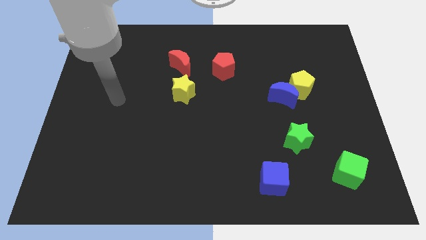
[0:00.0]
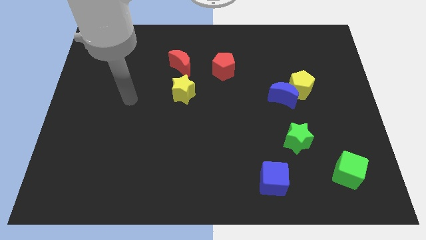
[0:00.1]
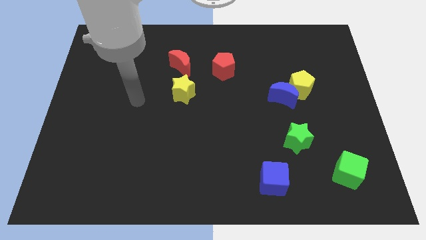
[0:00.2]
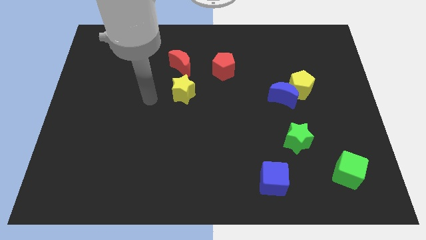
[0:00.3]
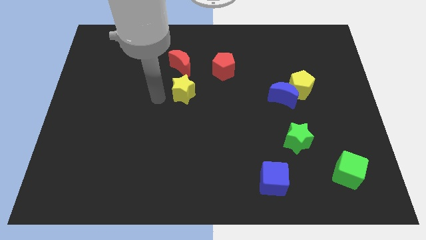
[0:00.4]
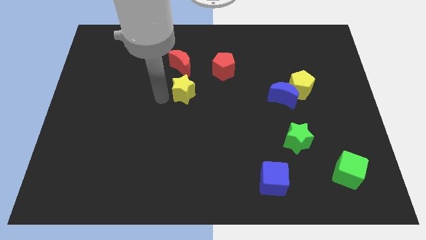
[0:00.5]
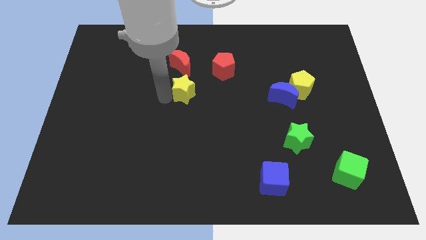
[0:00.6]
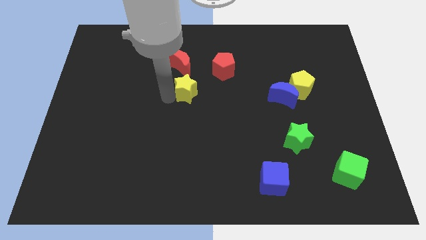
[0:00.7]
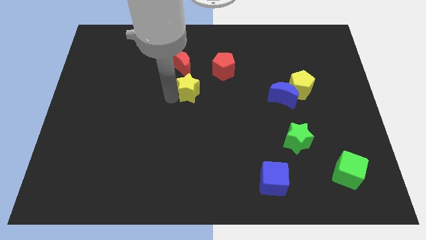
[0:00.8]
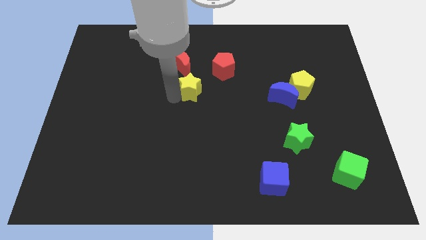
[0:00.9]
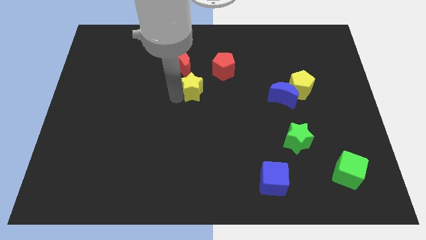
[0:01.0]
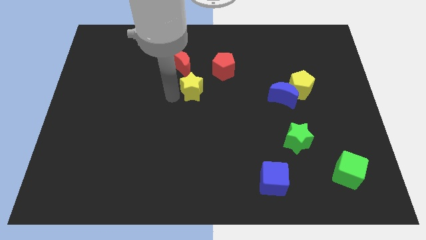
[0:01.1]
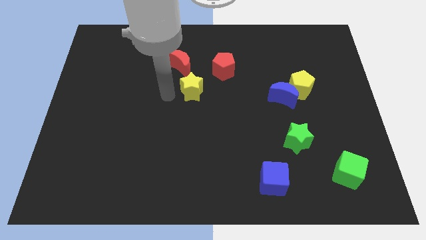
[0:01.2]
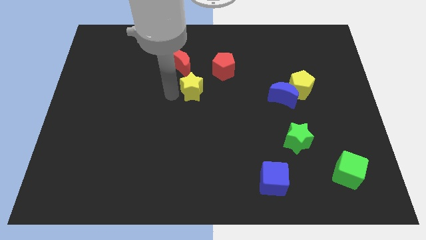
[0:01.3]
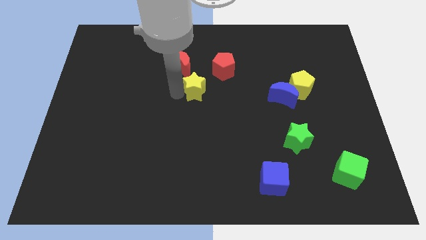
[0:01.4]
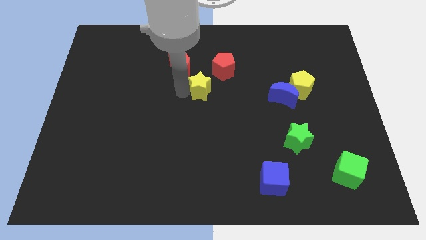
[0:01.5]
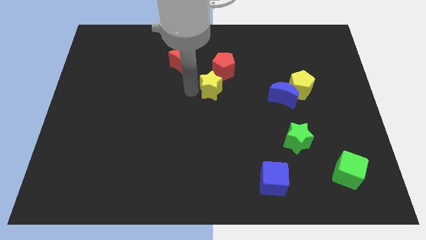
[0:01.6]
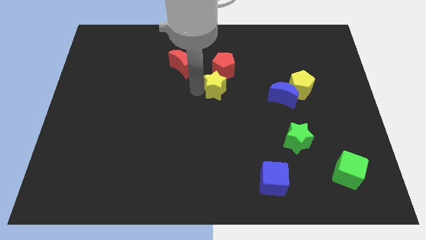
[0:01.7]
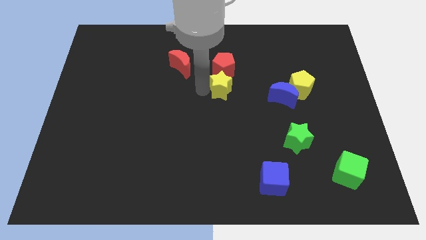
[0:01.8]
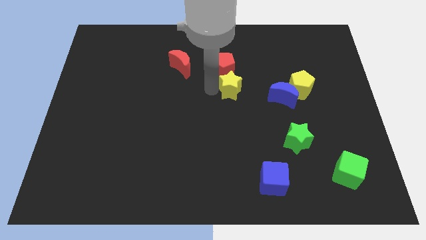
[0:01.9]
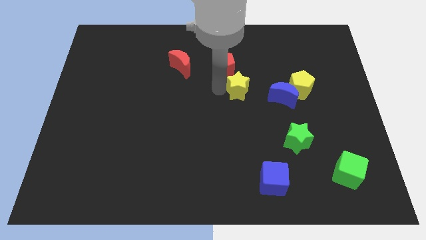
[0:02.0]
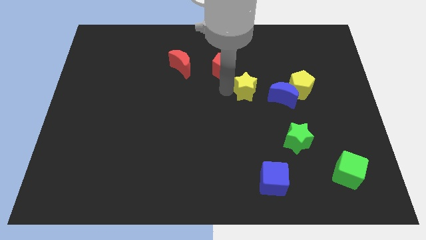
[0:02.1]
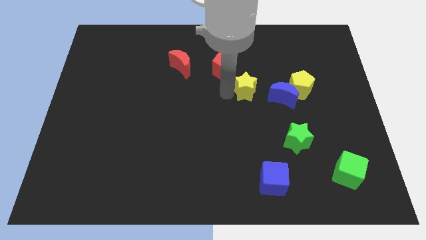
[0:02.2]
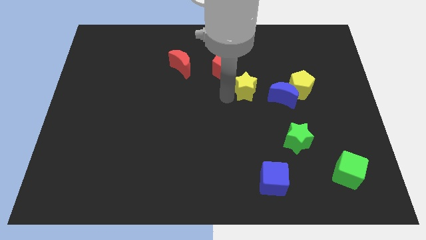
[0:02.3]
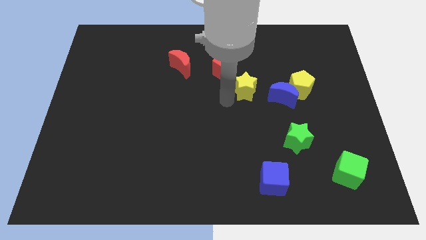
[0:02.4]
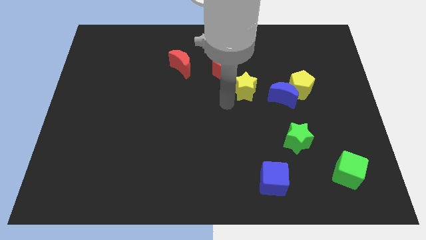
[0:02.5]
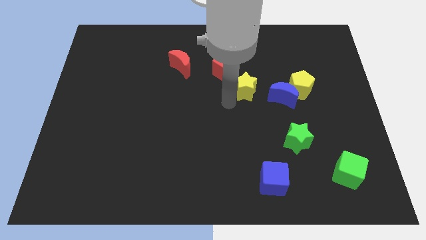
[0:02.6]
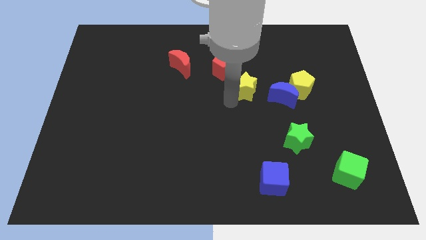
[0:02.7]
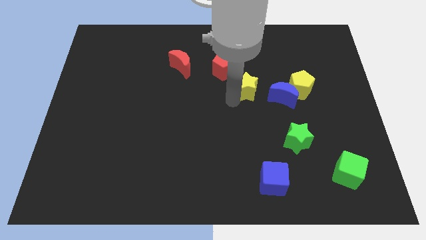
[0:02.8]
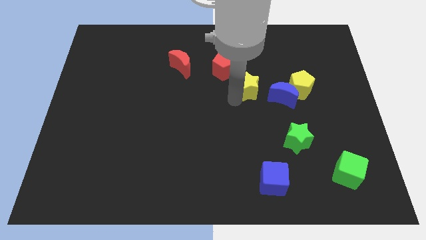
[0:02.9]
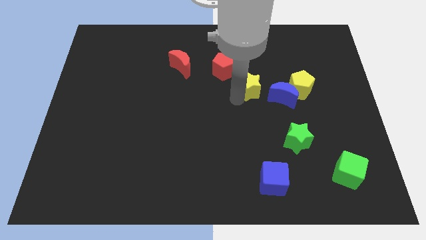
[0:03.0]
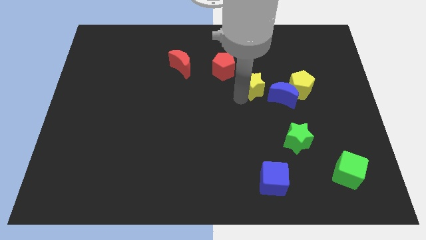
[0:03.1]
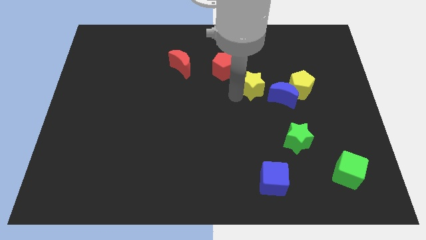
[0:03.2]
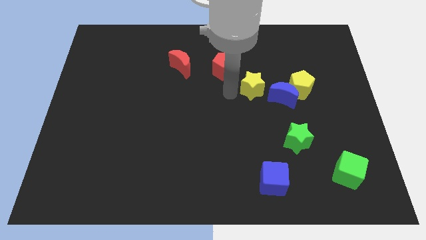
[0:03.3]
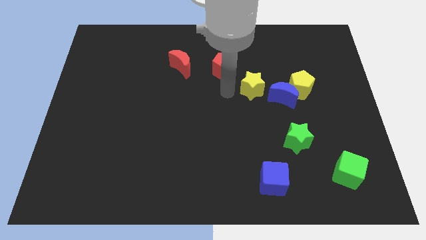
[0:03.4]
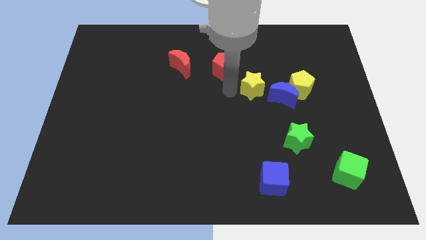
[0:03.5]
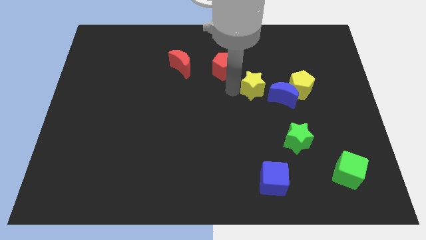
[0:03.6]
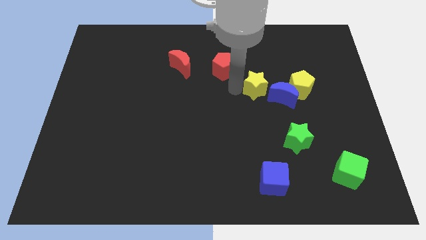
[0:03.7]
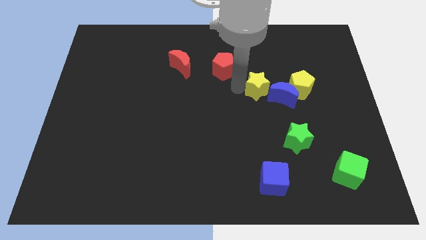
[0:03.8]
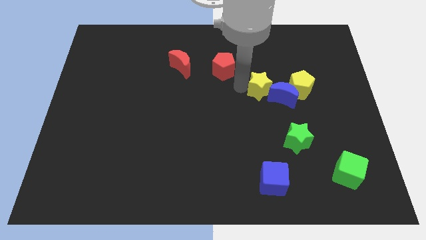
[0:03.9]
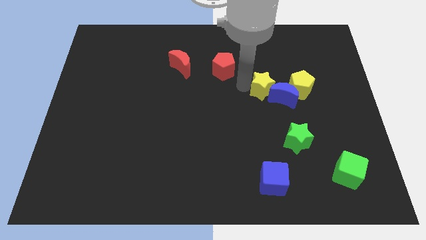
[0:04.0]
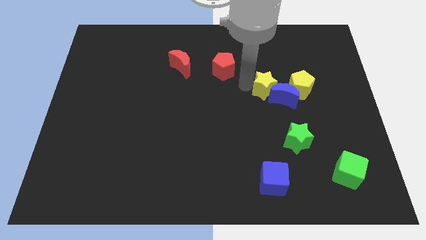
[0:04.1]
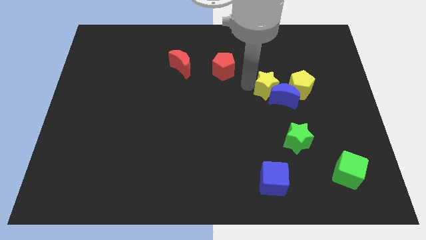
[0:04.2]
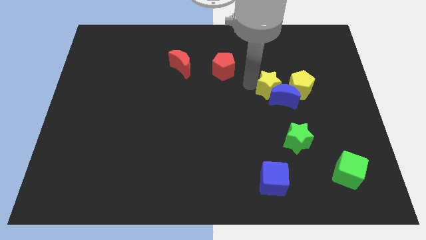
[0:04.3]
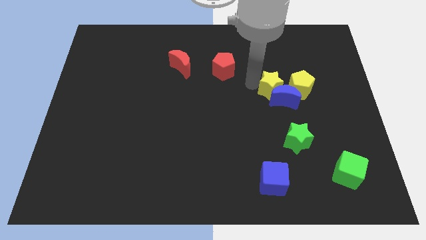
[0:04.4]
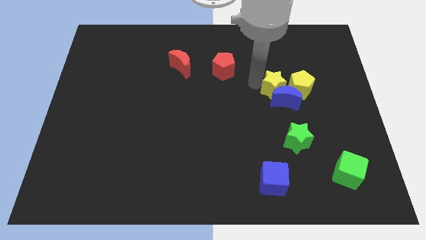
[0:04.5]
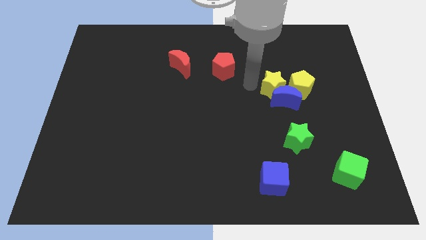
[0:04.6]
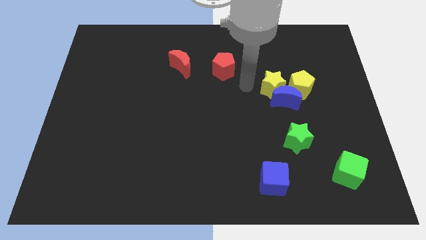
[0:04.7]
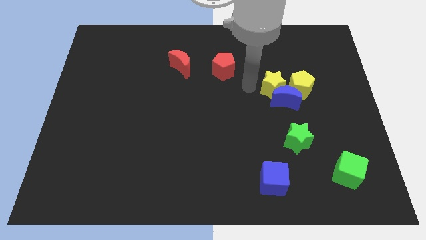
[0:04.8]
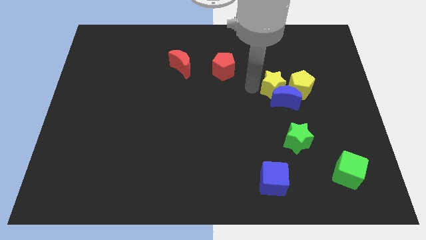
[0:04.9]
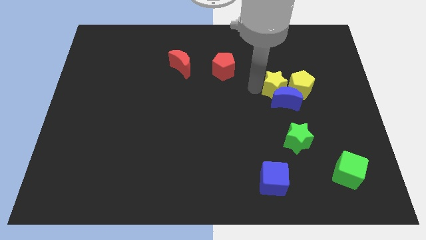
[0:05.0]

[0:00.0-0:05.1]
put the yellow star towards the yellow pentagon

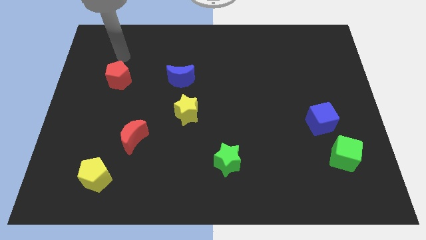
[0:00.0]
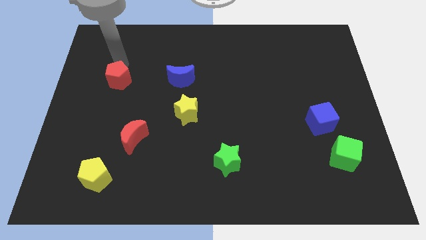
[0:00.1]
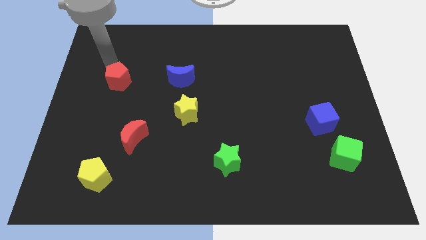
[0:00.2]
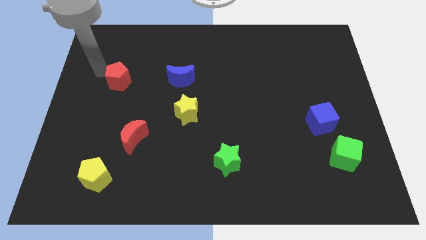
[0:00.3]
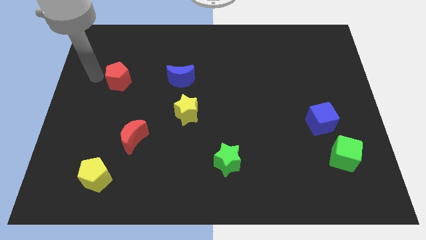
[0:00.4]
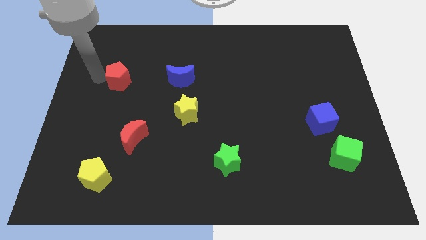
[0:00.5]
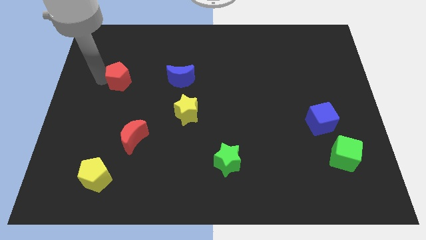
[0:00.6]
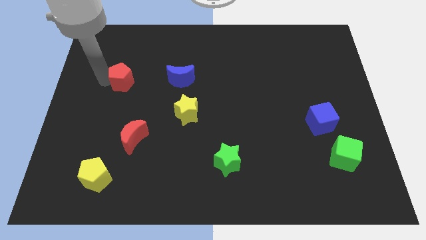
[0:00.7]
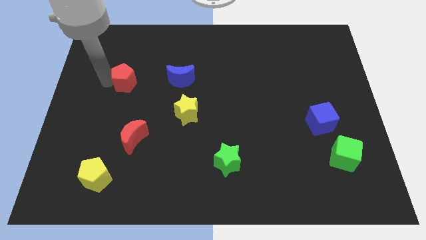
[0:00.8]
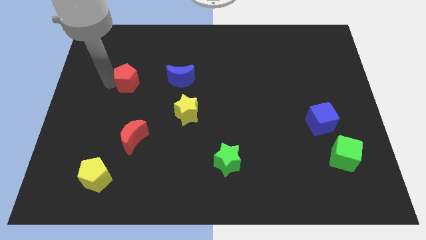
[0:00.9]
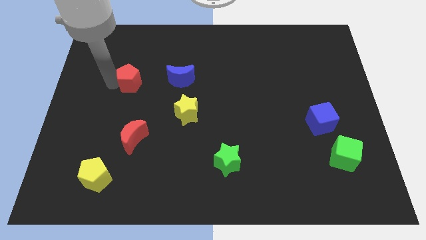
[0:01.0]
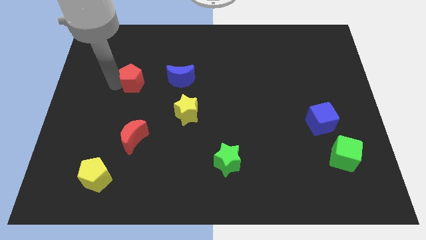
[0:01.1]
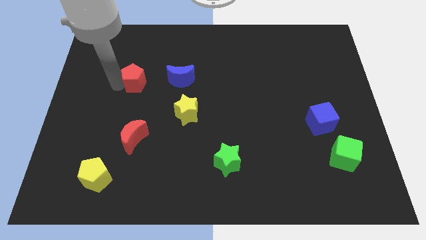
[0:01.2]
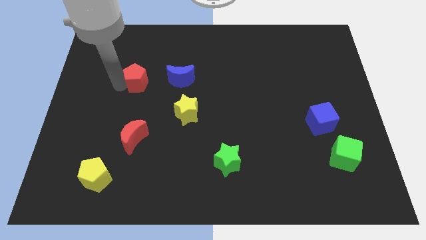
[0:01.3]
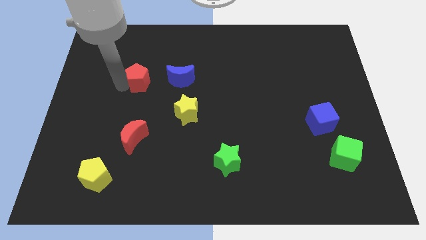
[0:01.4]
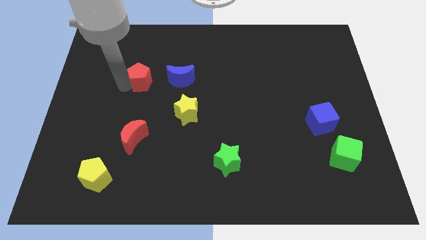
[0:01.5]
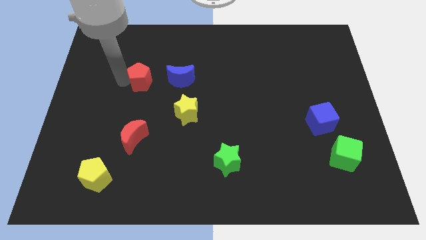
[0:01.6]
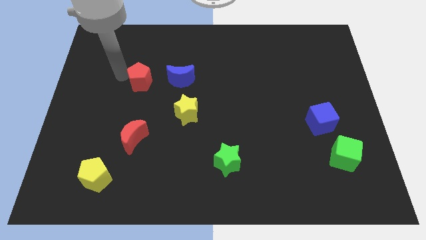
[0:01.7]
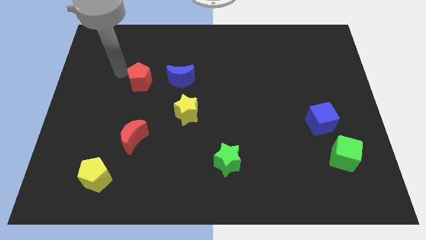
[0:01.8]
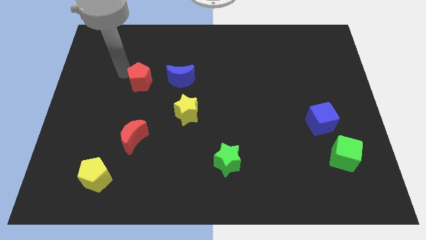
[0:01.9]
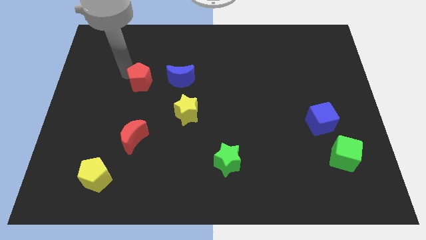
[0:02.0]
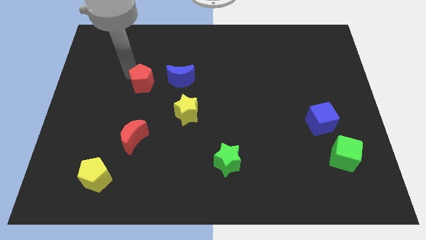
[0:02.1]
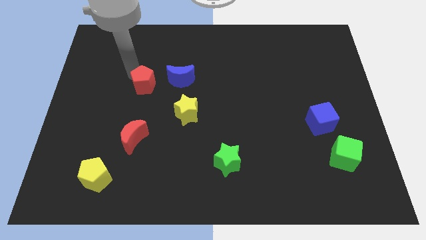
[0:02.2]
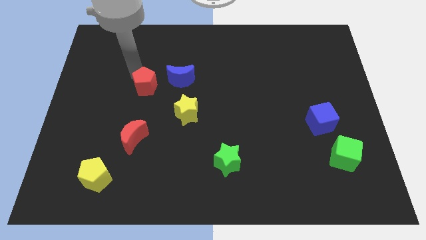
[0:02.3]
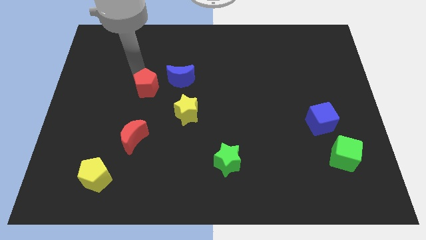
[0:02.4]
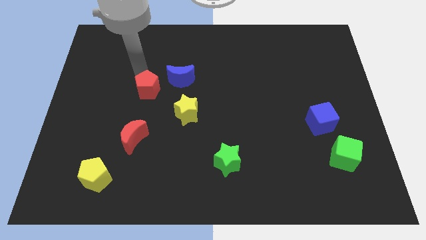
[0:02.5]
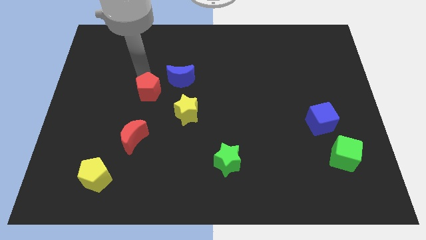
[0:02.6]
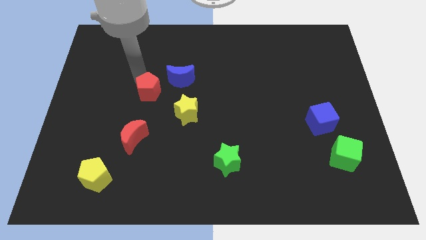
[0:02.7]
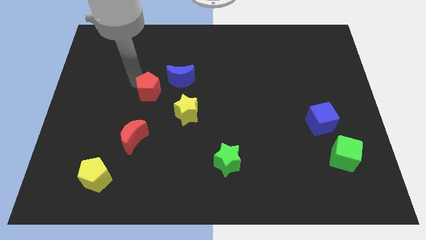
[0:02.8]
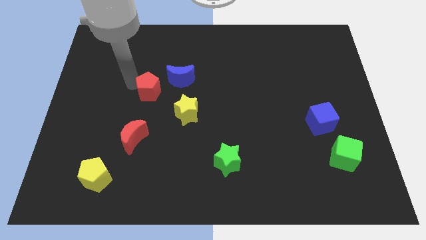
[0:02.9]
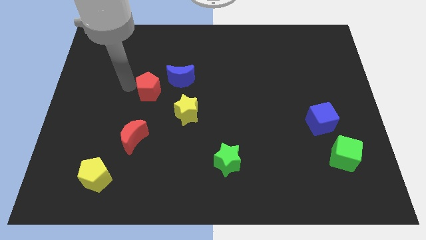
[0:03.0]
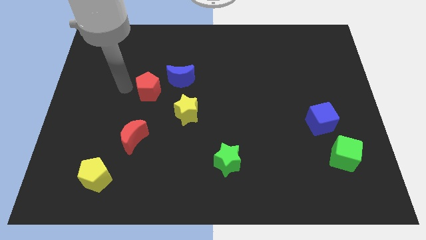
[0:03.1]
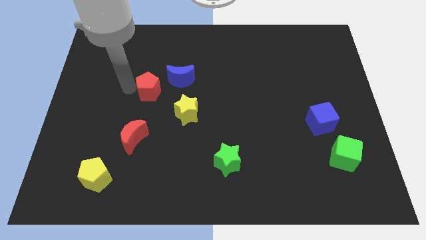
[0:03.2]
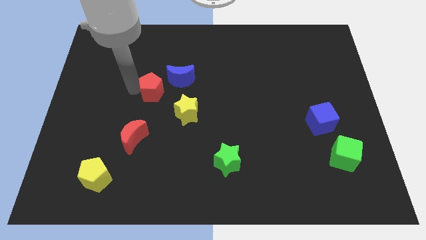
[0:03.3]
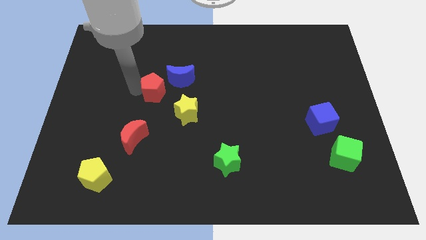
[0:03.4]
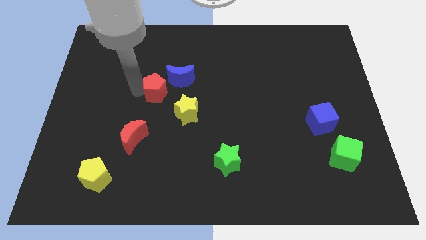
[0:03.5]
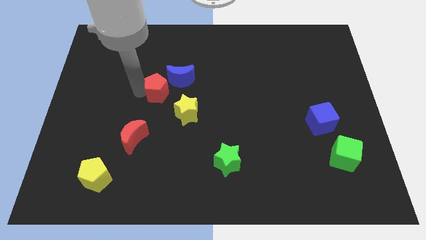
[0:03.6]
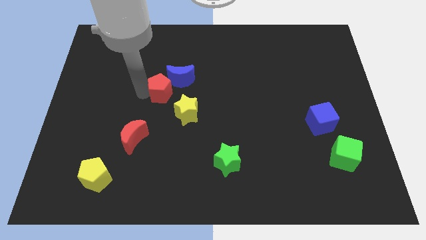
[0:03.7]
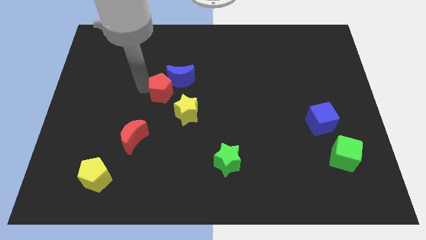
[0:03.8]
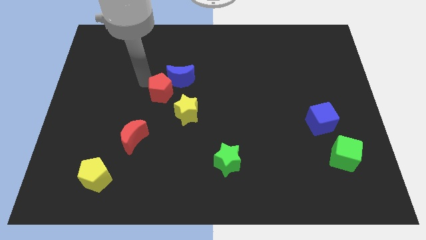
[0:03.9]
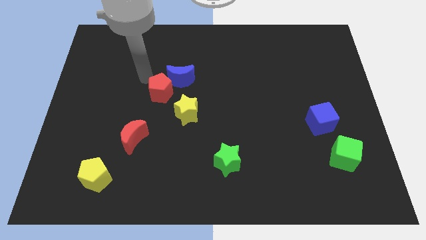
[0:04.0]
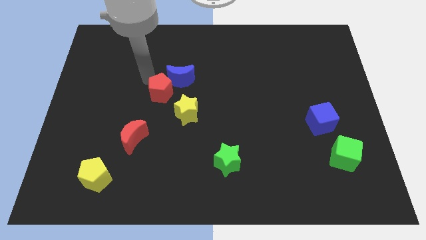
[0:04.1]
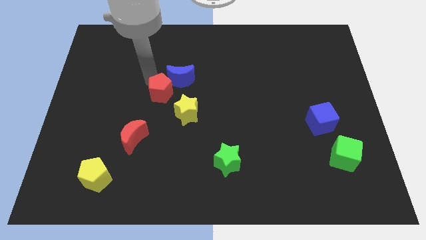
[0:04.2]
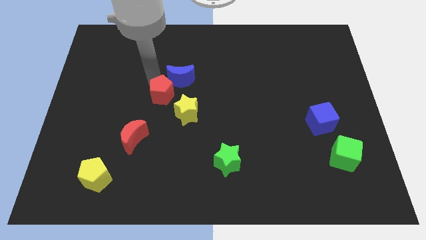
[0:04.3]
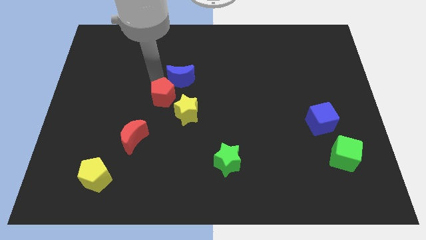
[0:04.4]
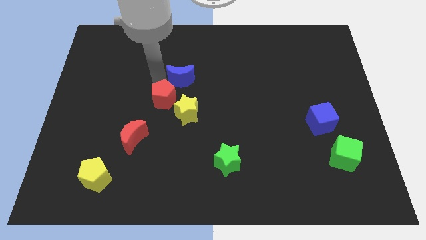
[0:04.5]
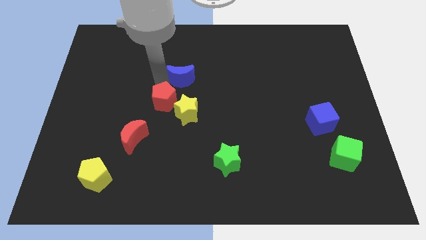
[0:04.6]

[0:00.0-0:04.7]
move the red pentagon next to the yellow star
